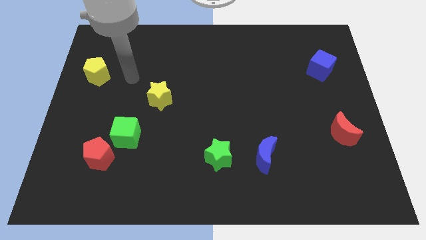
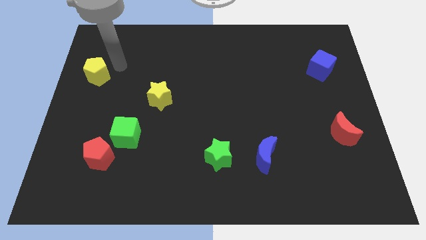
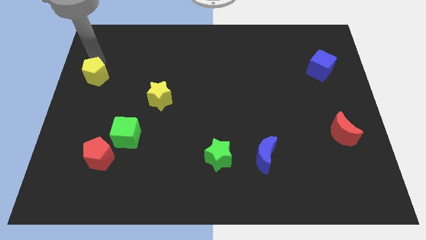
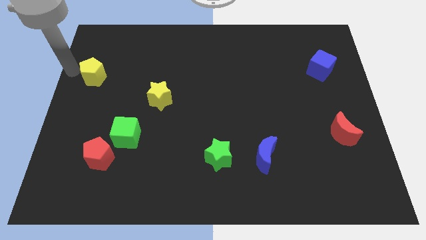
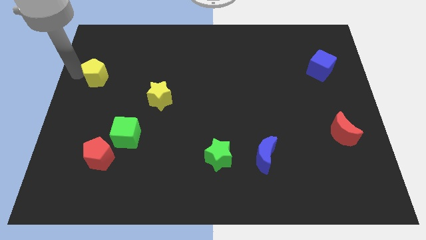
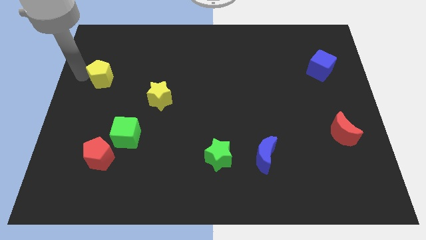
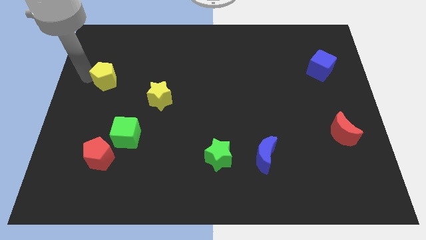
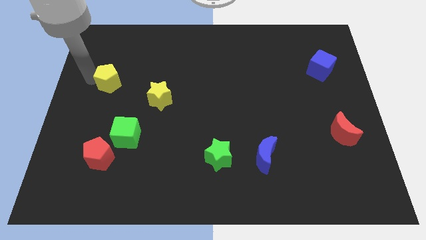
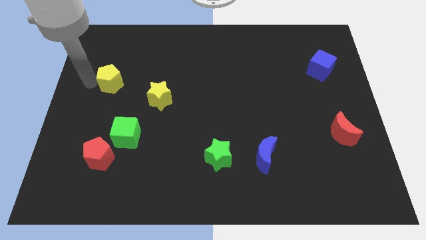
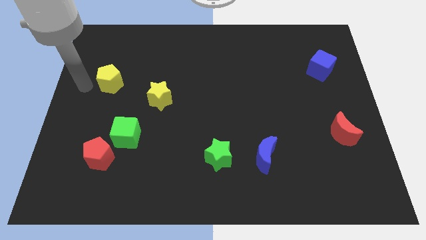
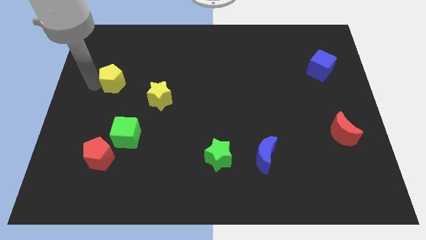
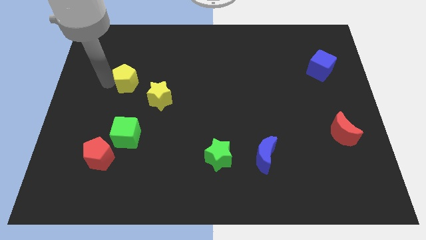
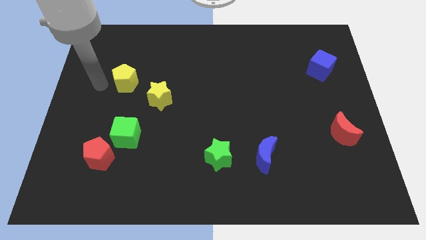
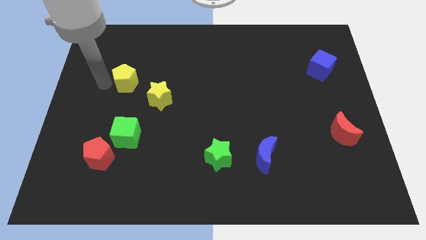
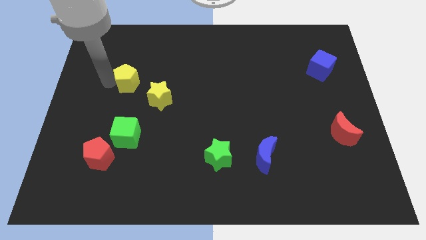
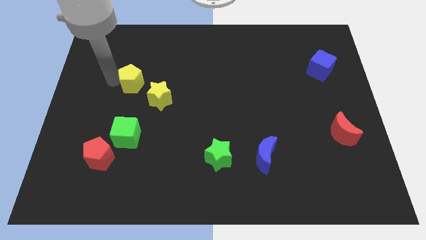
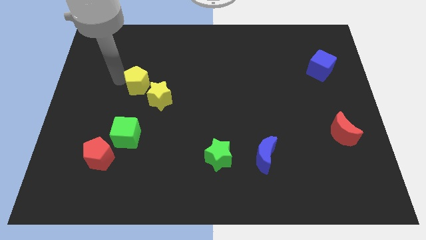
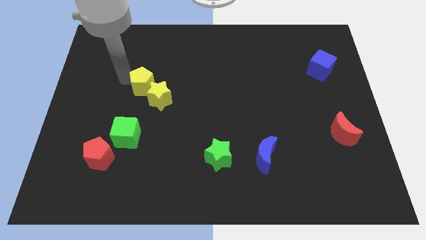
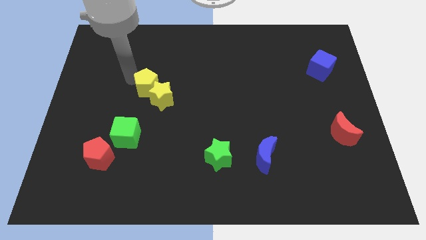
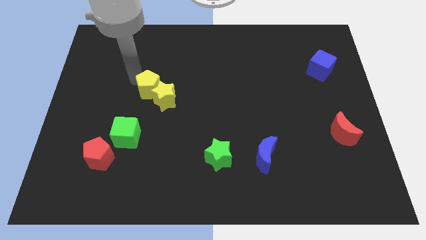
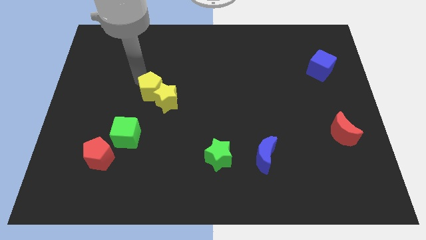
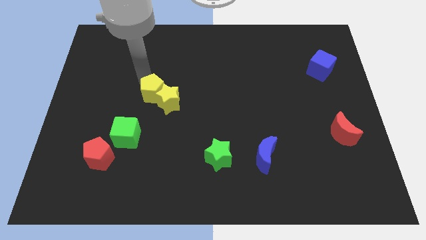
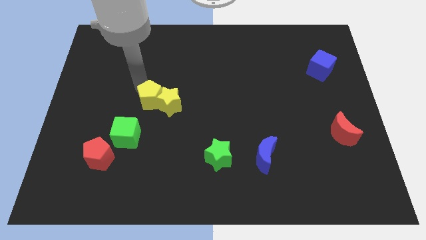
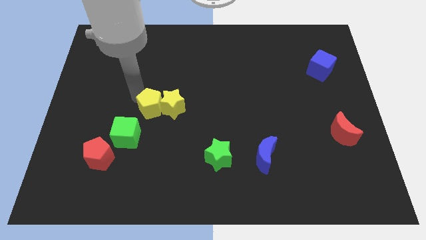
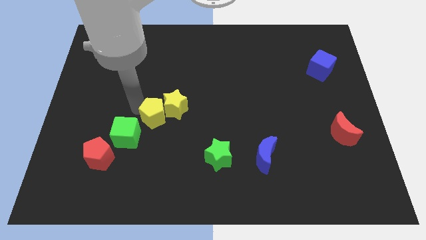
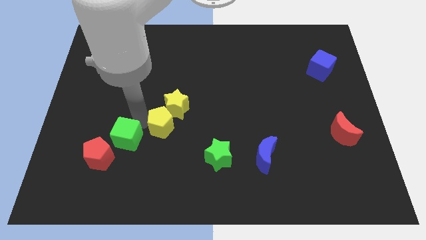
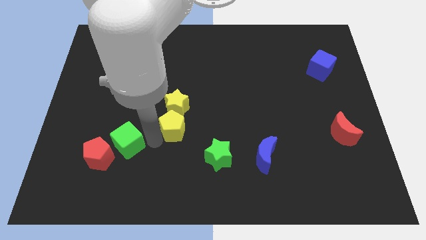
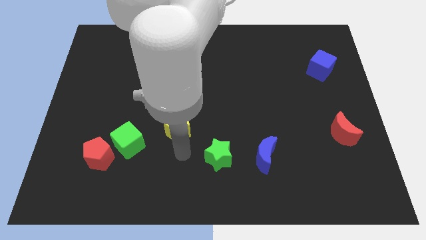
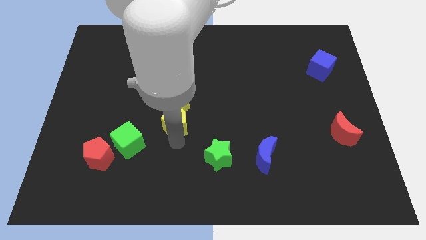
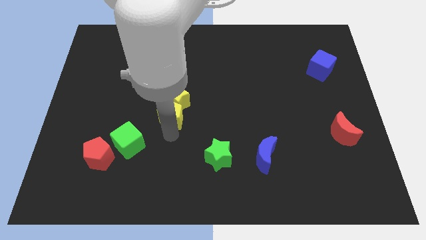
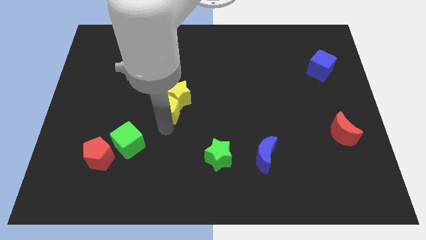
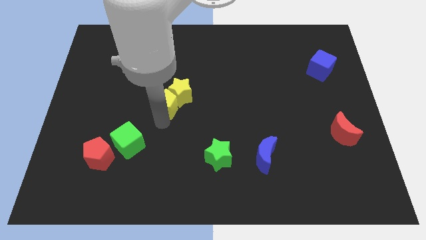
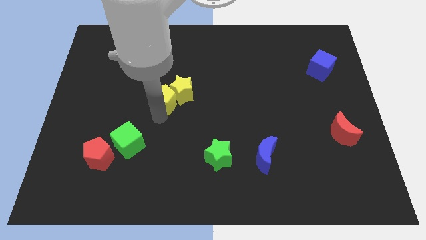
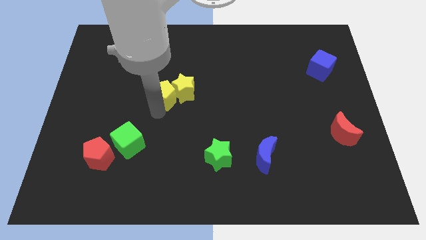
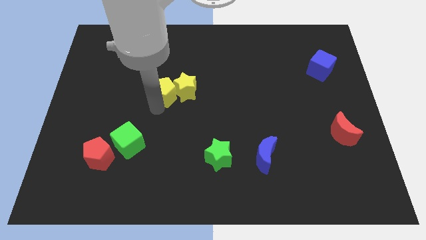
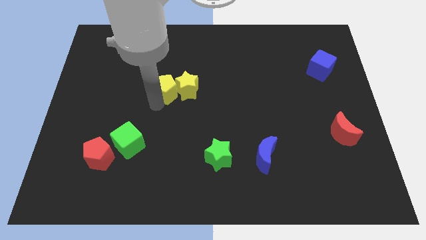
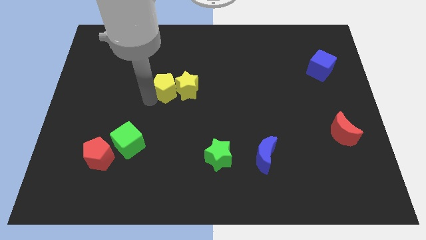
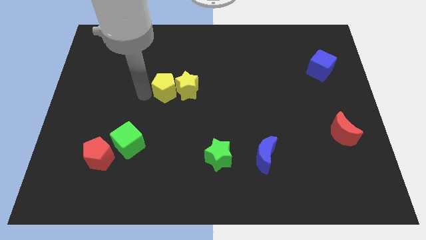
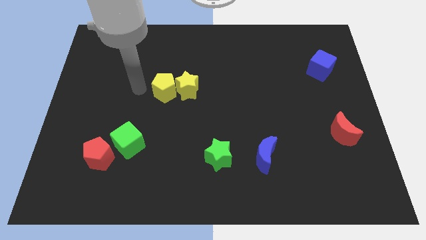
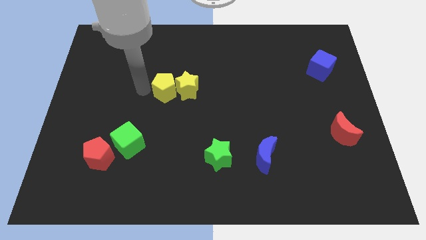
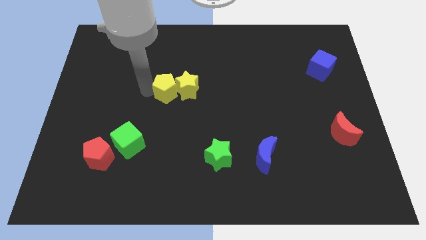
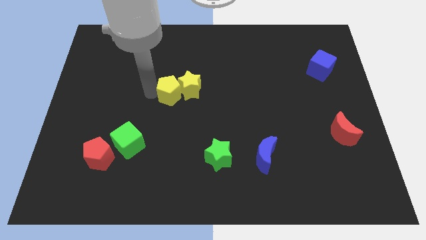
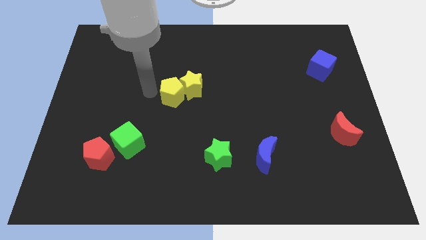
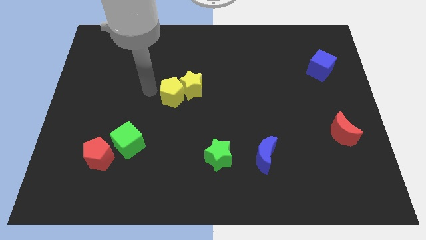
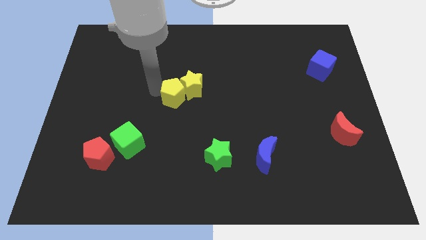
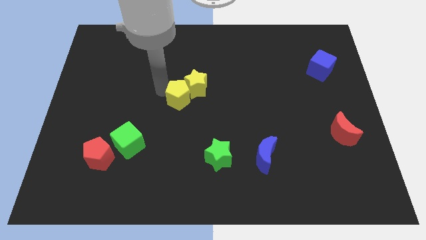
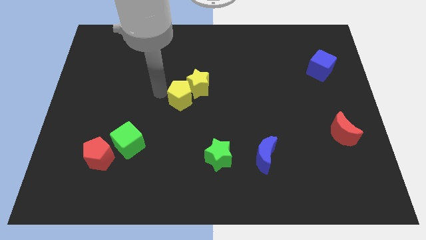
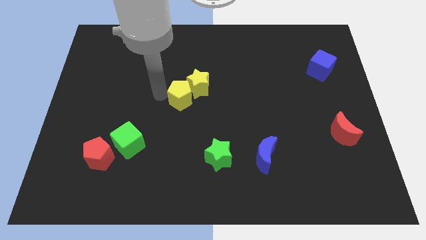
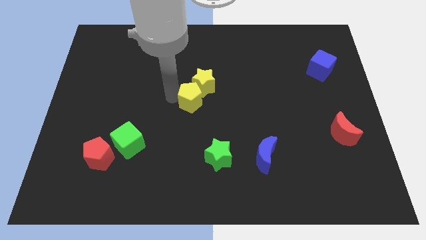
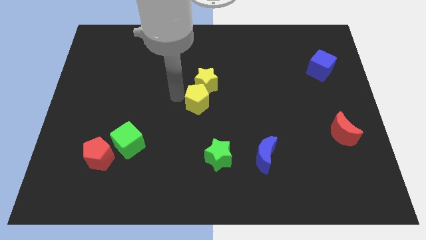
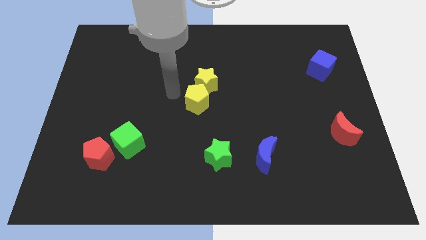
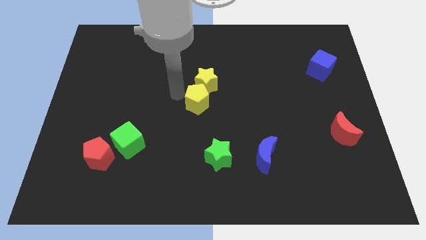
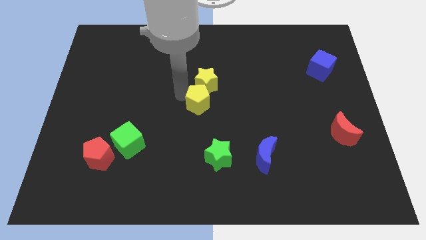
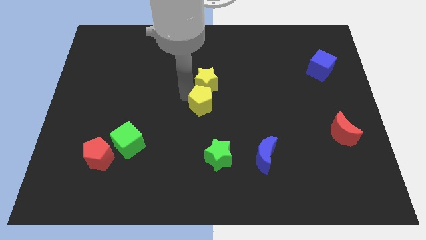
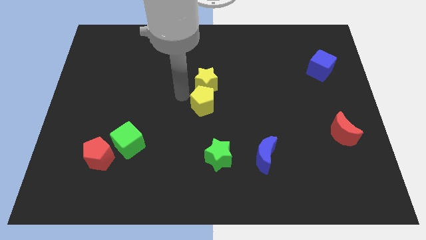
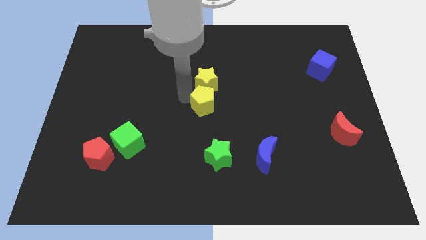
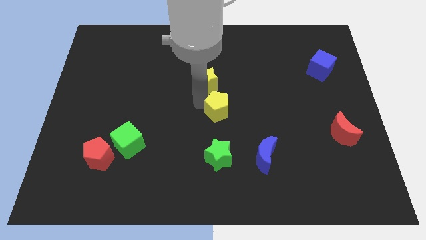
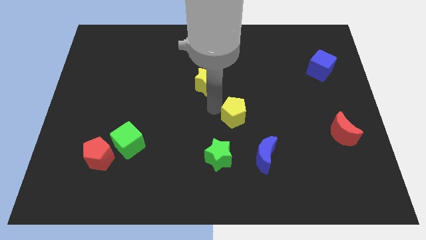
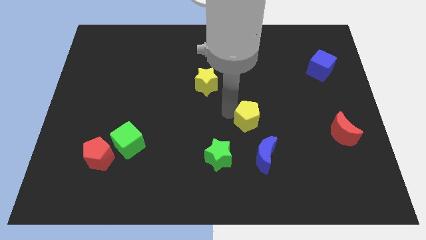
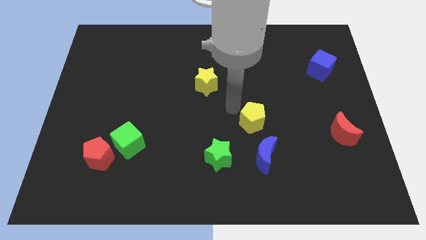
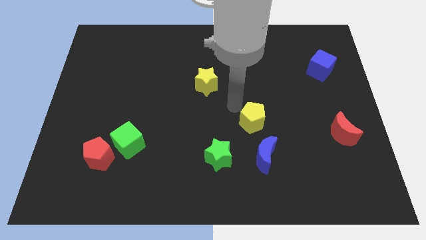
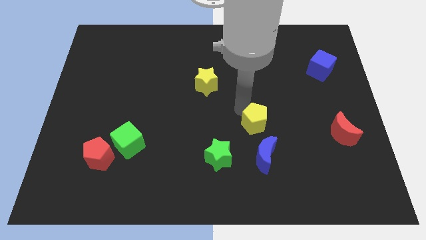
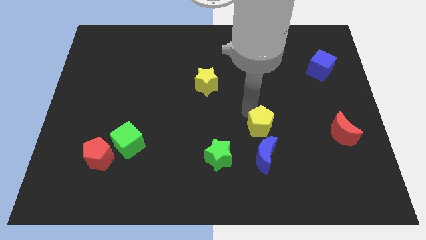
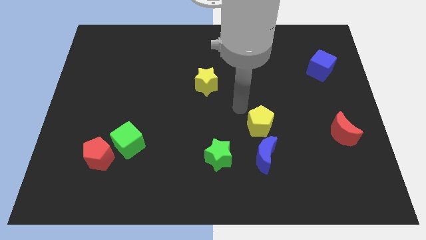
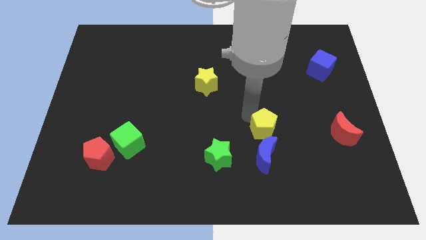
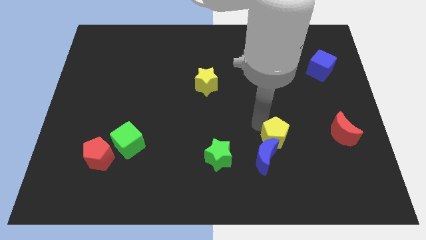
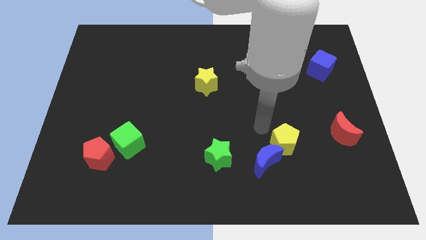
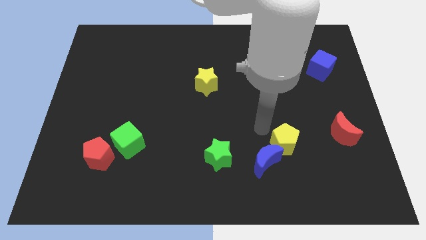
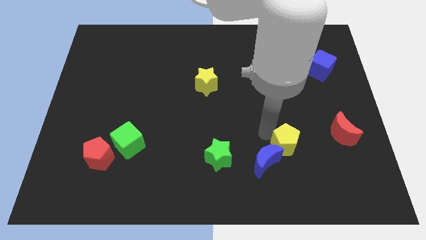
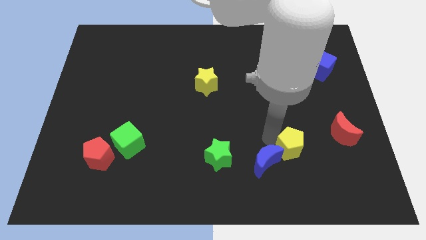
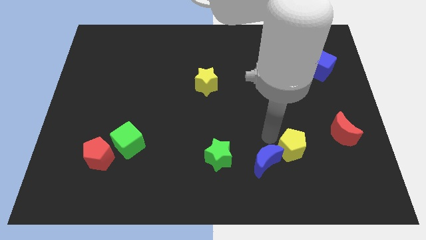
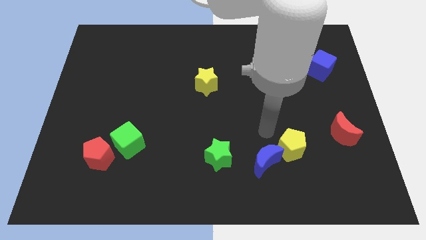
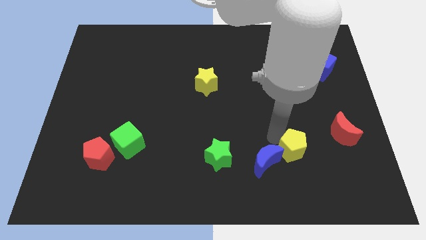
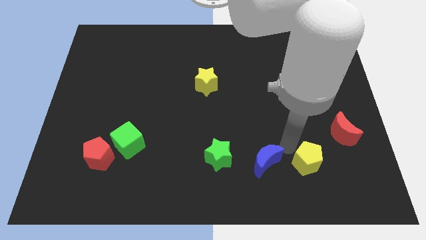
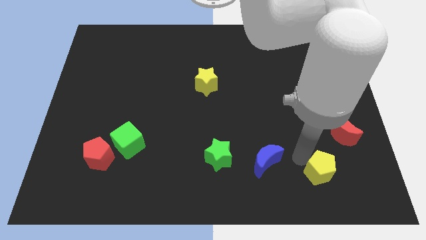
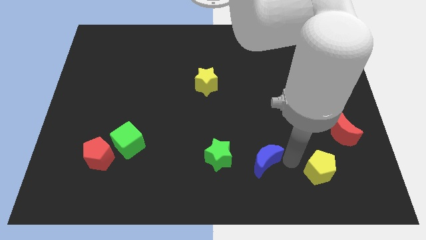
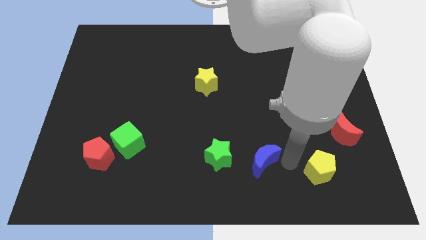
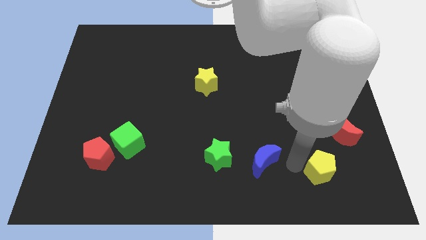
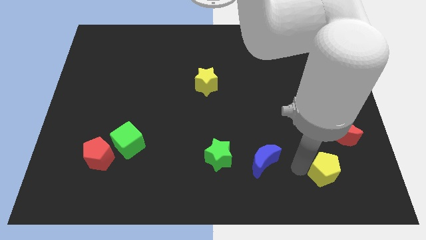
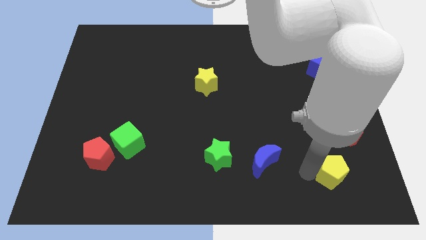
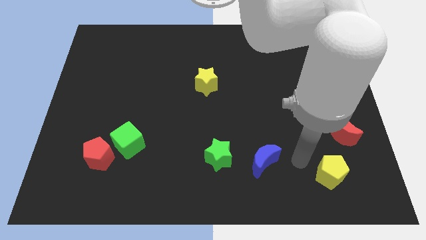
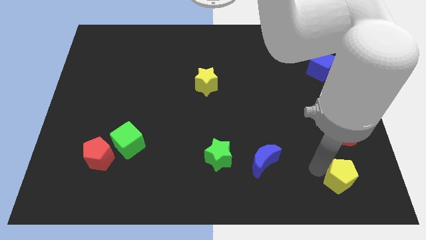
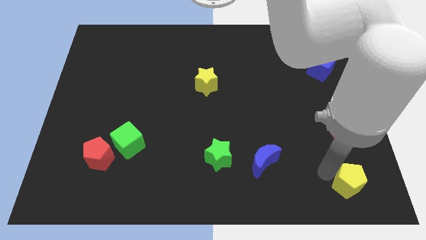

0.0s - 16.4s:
put the yellow pentagon to the bottom right corner
